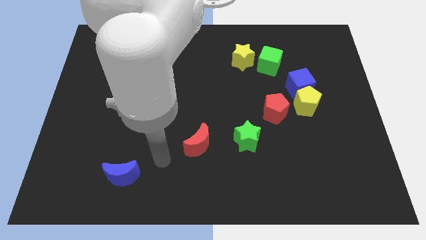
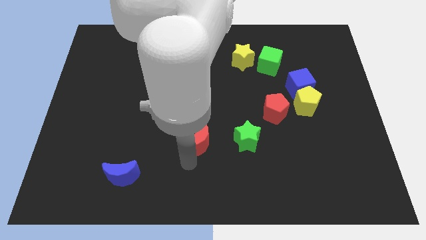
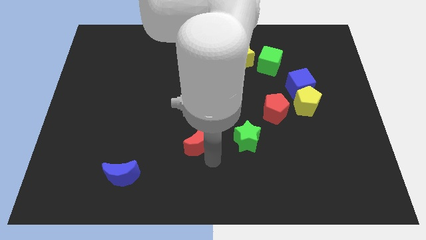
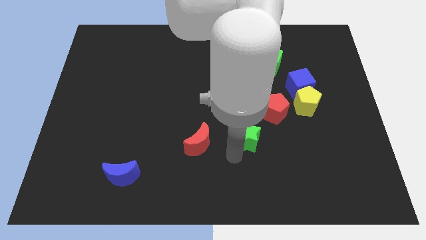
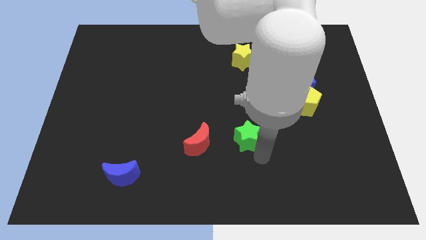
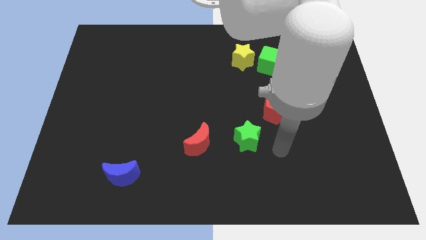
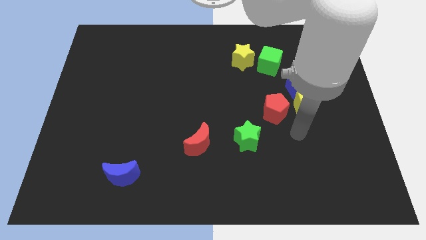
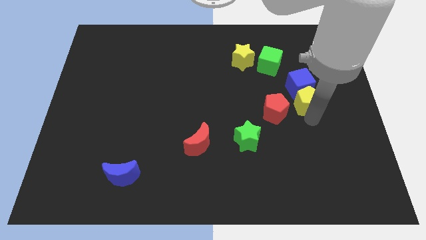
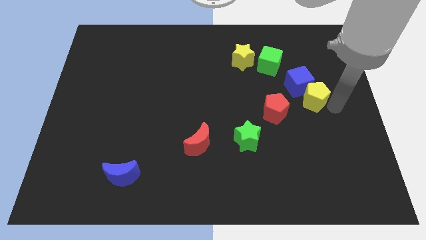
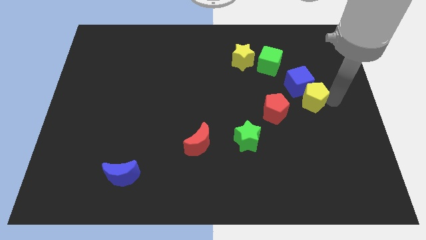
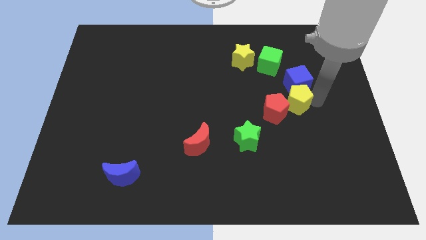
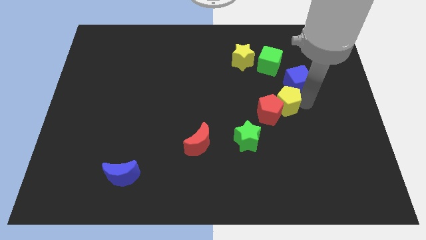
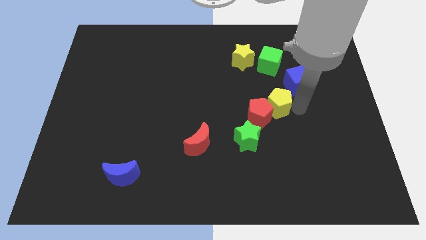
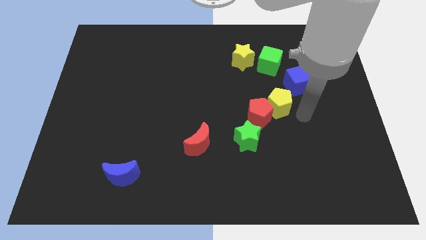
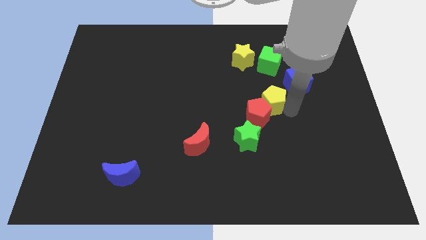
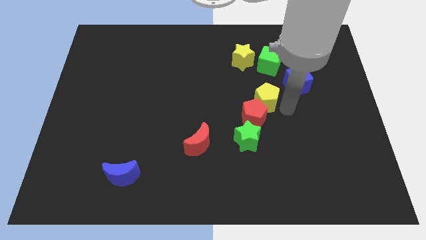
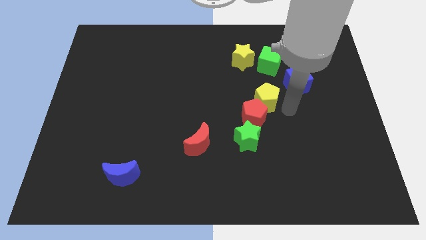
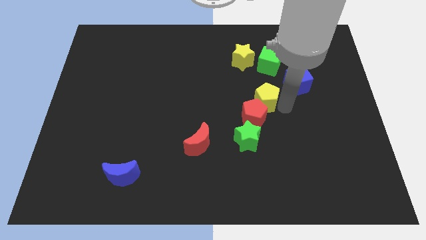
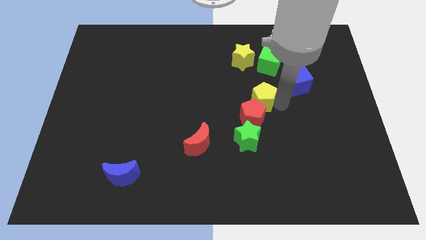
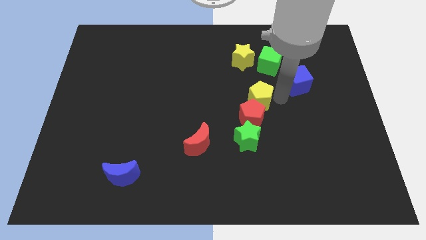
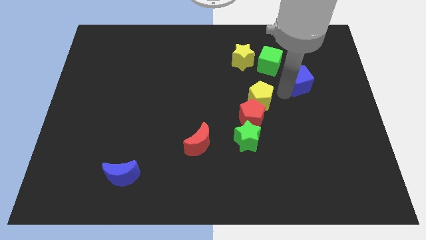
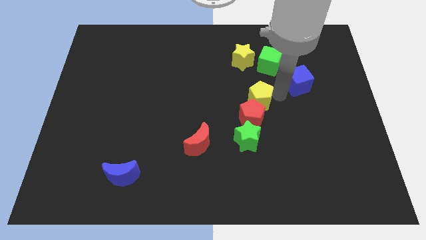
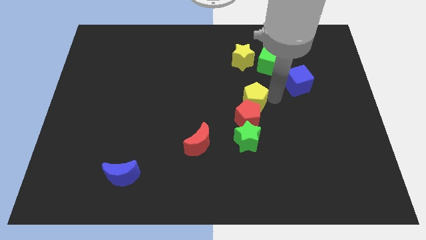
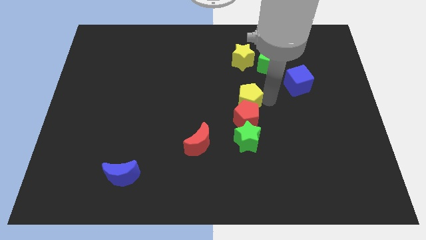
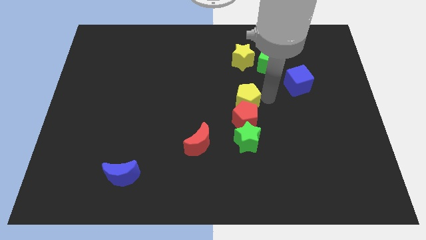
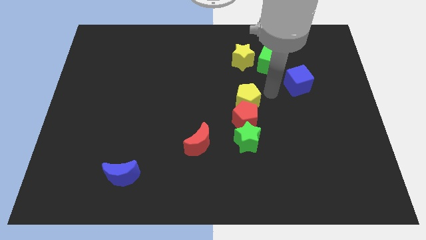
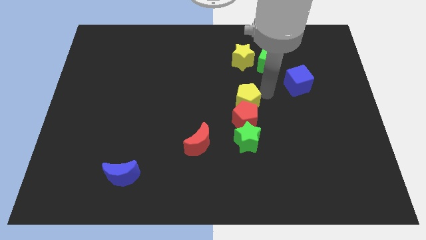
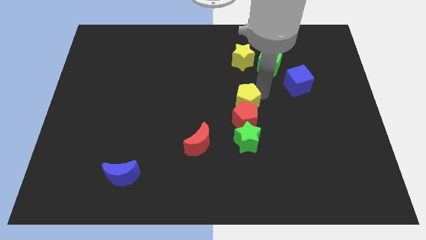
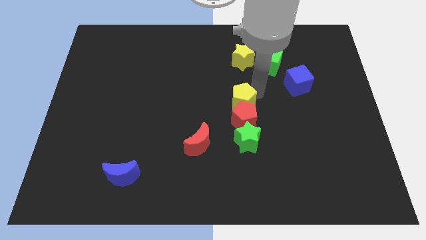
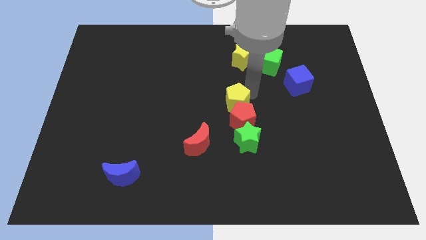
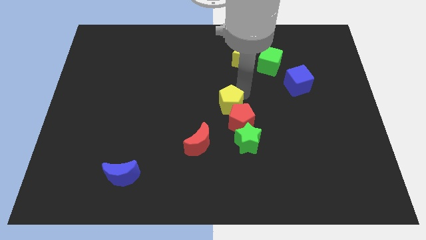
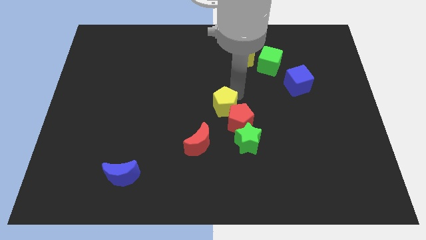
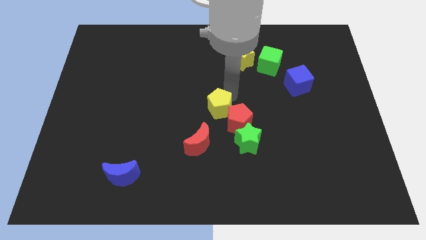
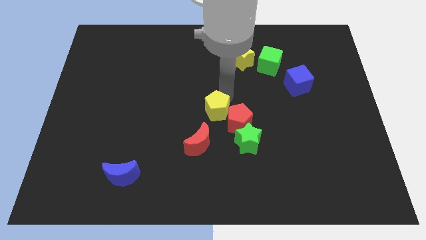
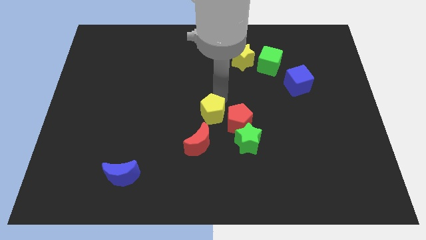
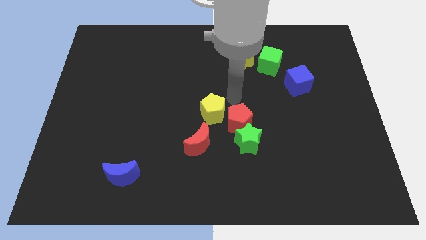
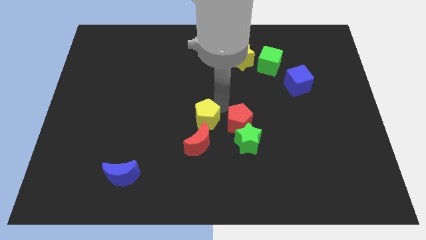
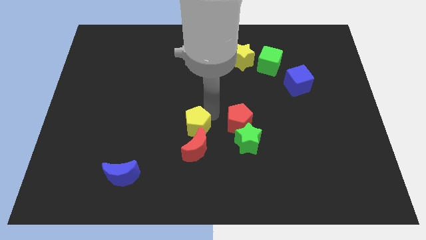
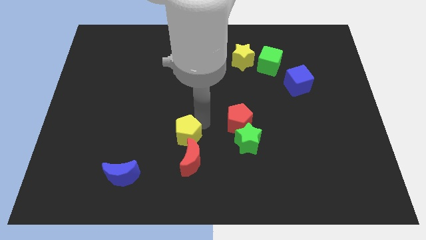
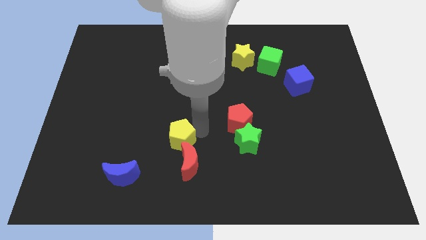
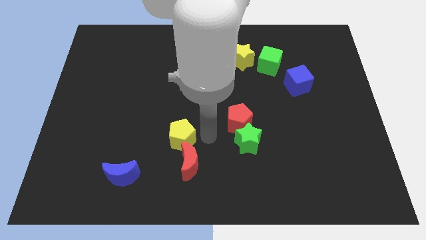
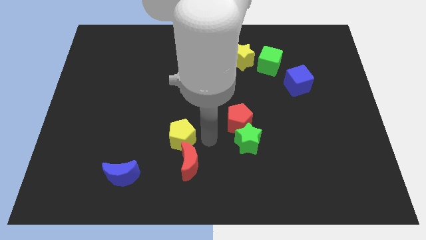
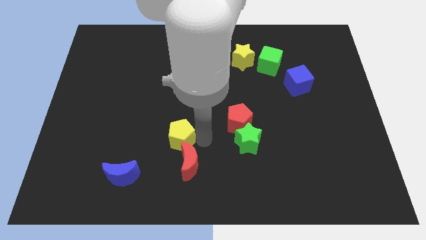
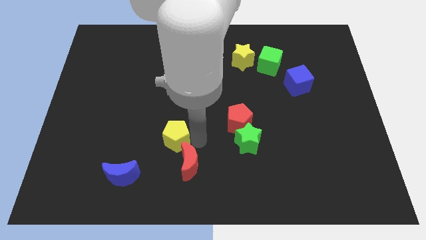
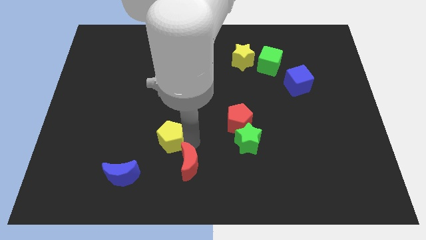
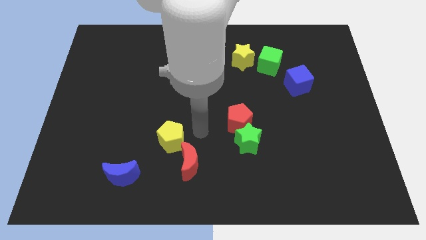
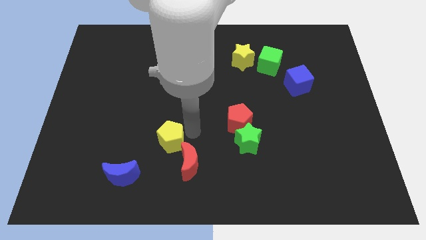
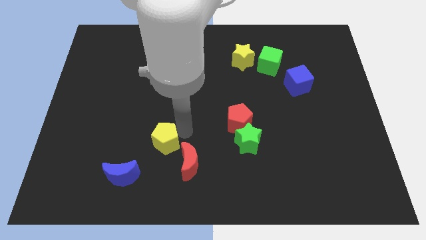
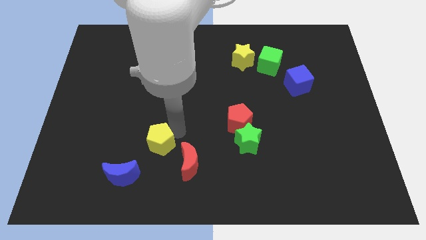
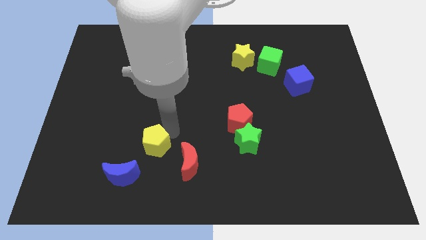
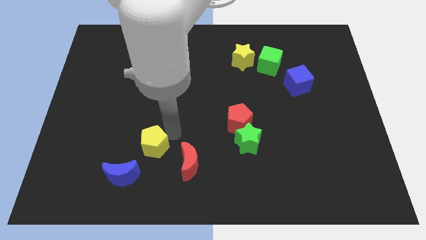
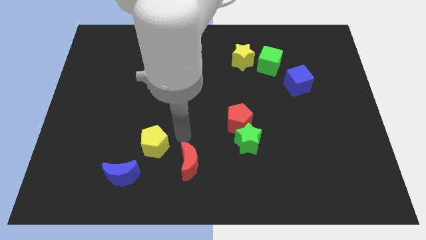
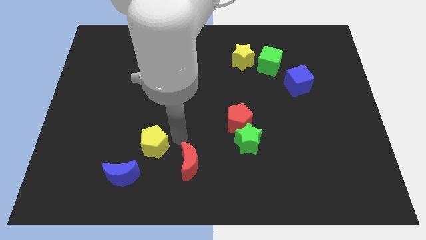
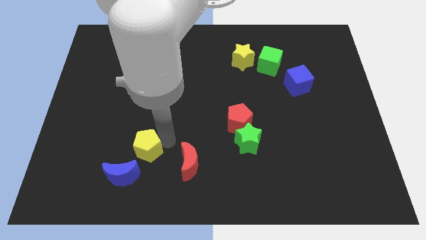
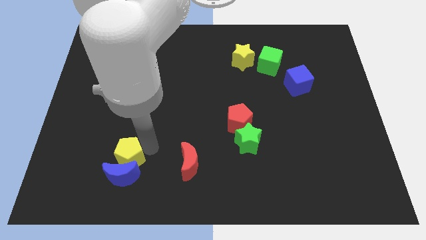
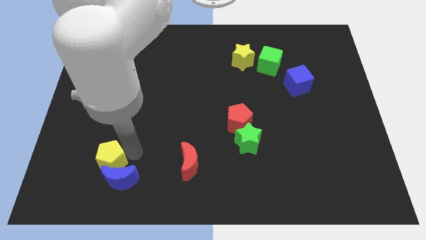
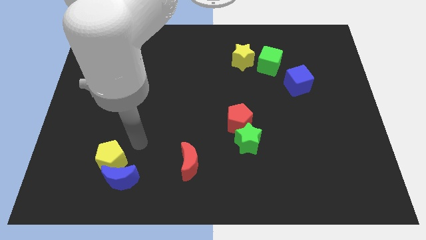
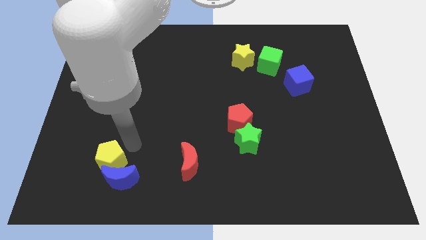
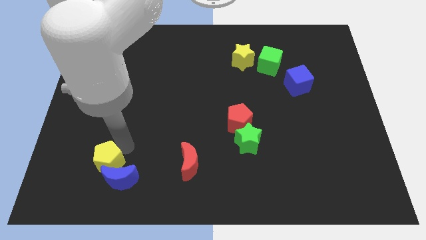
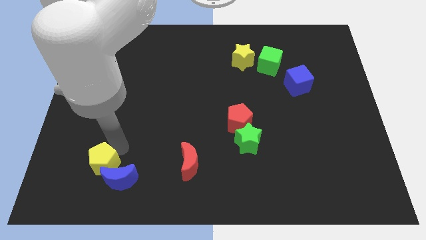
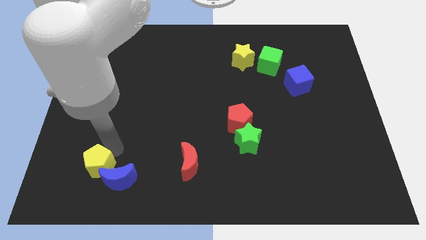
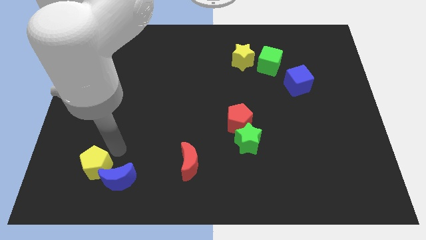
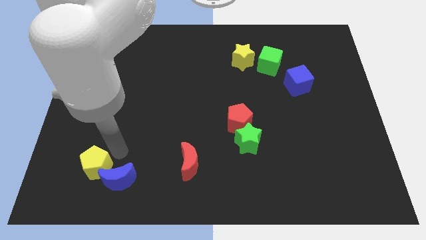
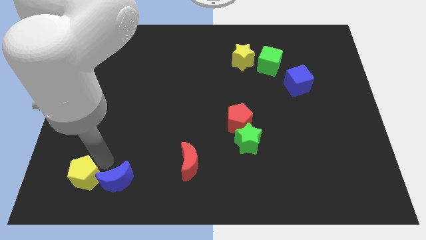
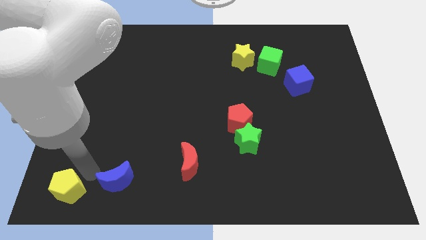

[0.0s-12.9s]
slide the yellow pentagon to the bottom left corner
